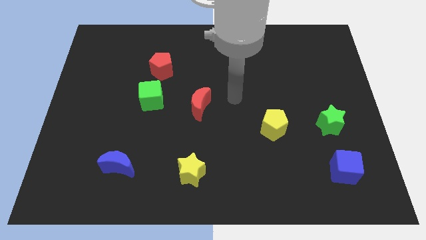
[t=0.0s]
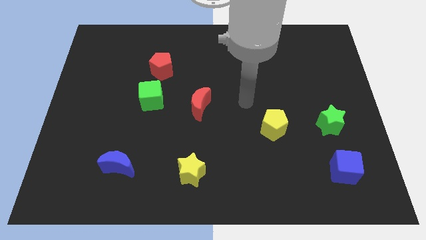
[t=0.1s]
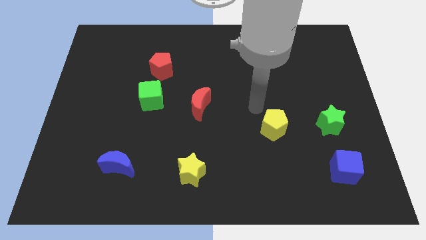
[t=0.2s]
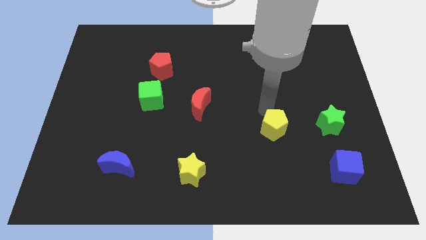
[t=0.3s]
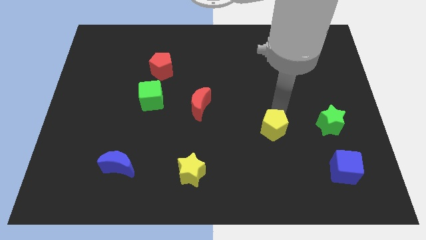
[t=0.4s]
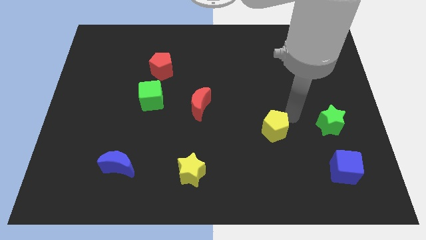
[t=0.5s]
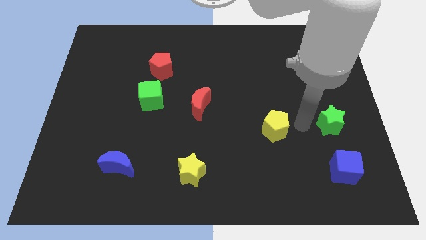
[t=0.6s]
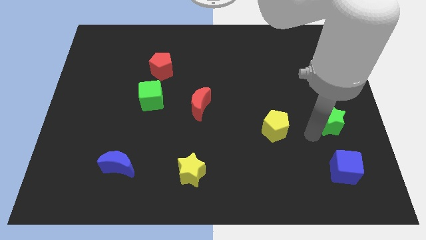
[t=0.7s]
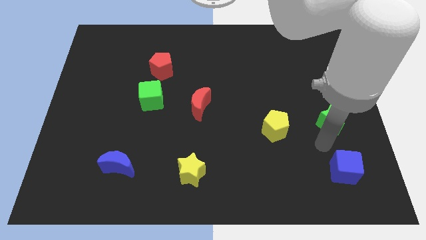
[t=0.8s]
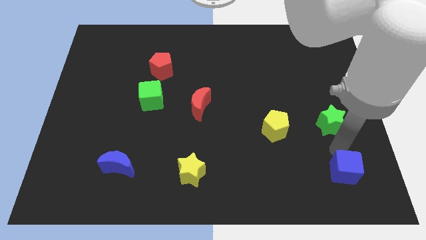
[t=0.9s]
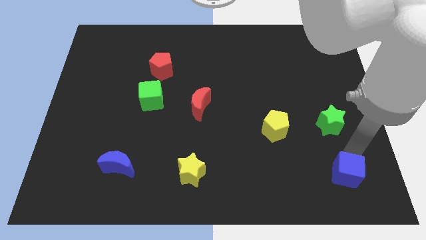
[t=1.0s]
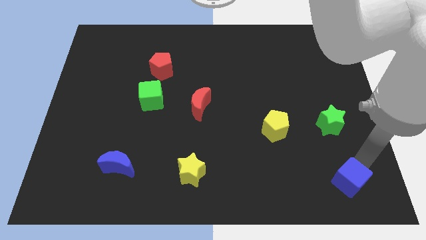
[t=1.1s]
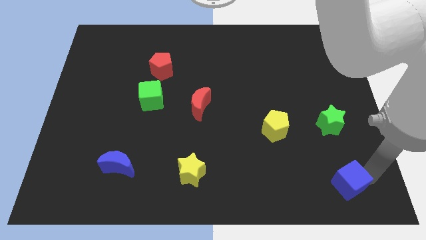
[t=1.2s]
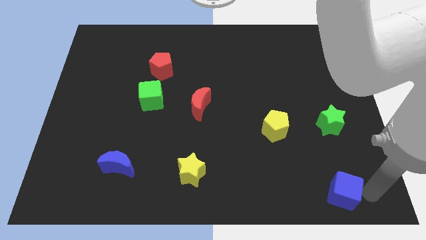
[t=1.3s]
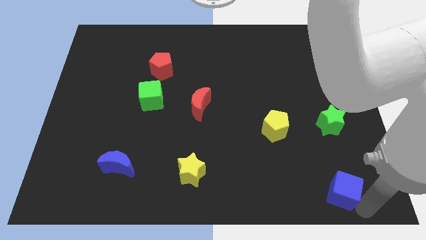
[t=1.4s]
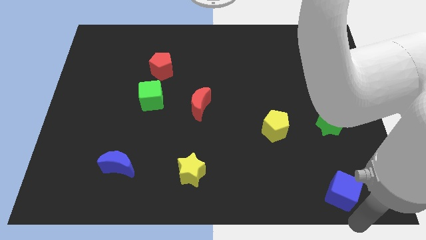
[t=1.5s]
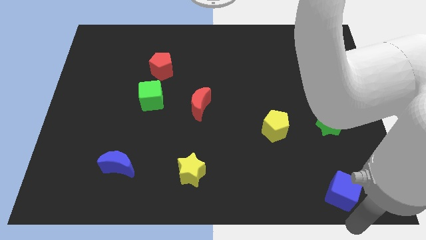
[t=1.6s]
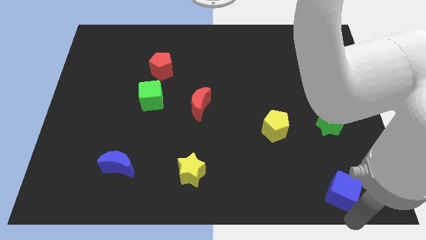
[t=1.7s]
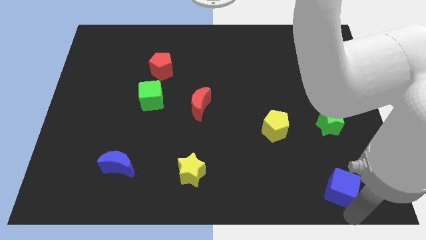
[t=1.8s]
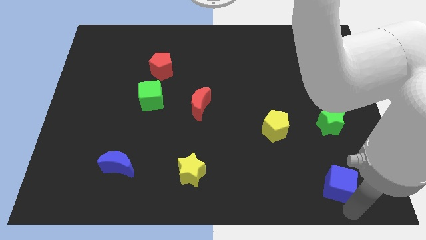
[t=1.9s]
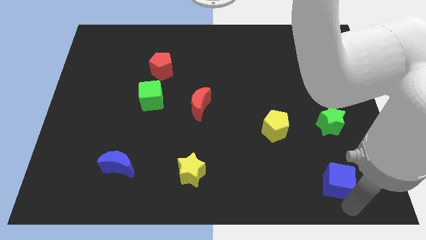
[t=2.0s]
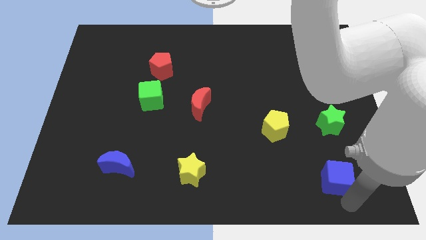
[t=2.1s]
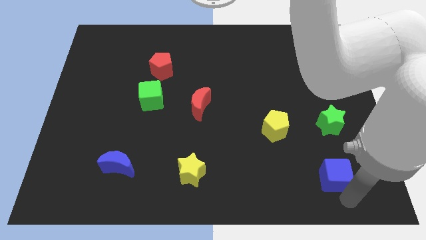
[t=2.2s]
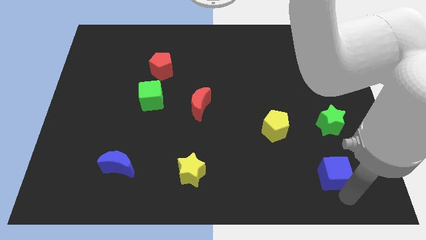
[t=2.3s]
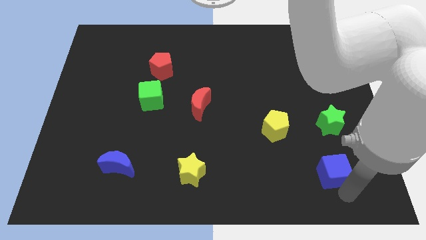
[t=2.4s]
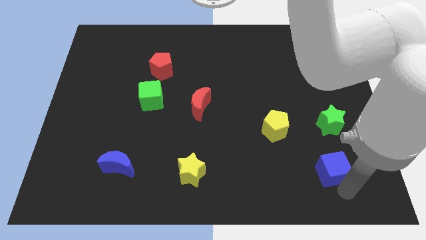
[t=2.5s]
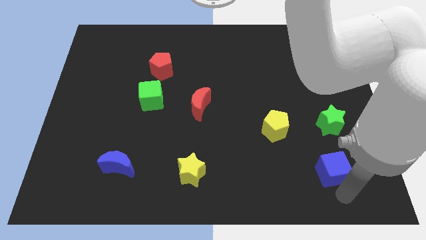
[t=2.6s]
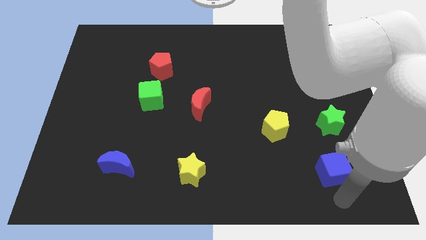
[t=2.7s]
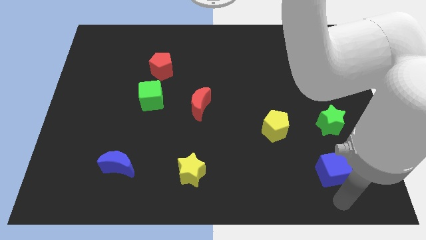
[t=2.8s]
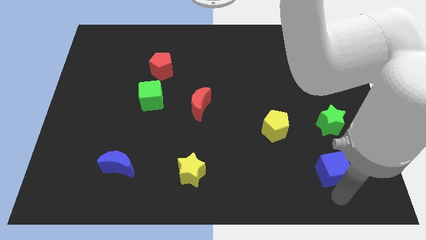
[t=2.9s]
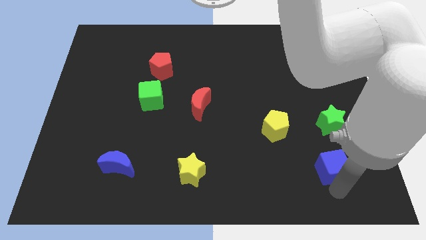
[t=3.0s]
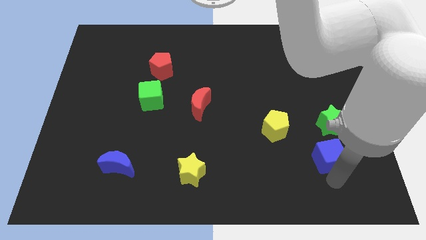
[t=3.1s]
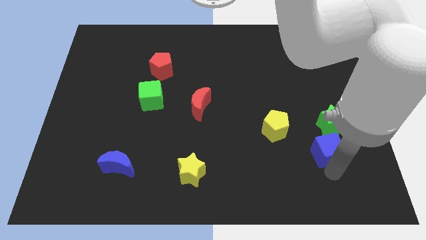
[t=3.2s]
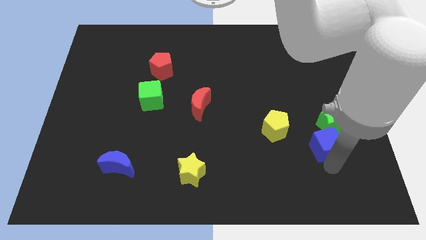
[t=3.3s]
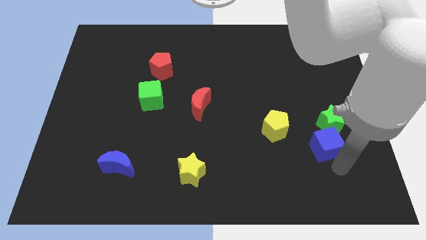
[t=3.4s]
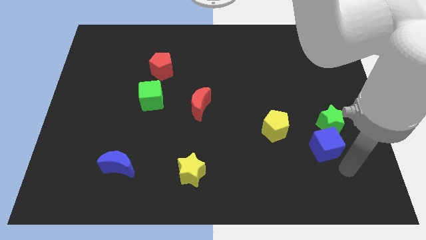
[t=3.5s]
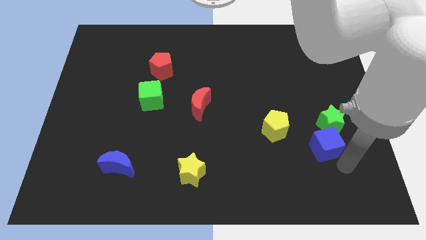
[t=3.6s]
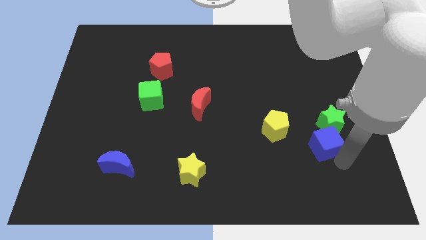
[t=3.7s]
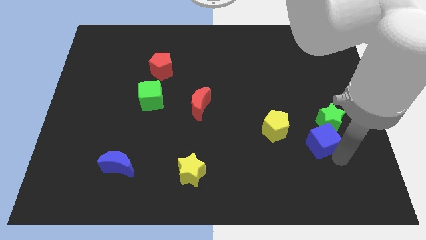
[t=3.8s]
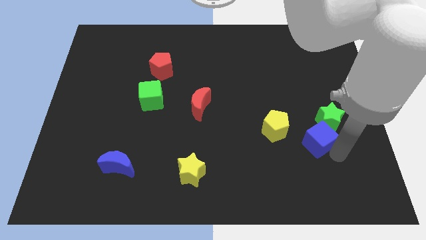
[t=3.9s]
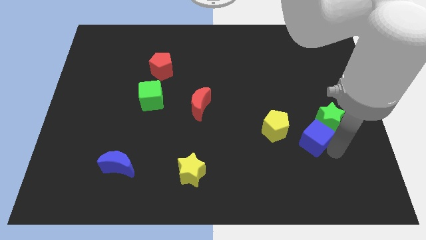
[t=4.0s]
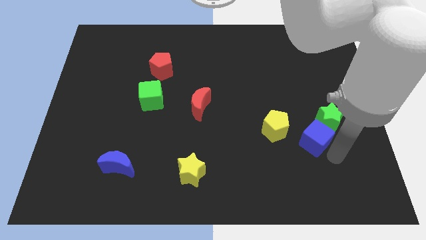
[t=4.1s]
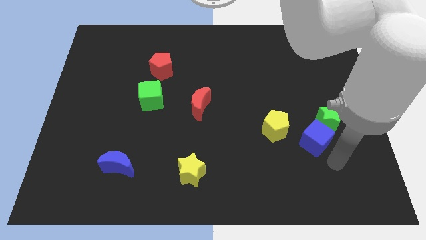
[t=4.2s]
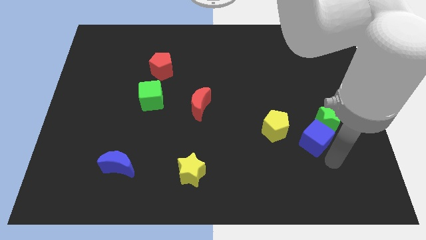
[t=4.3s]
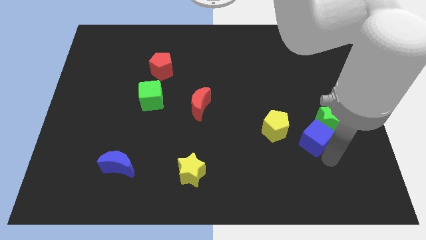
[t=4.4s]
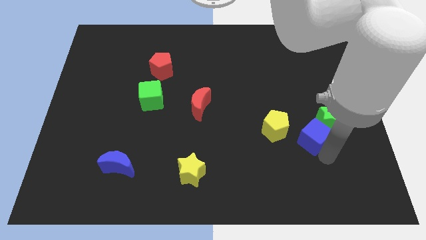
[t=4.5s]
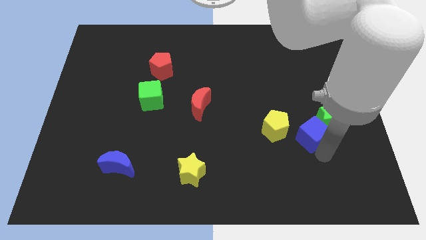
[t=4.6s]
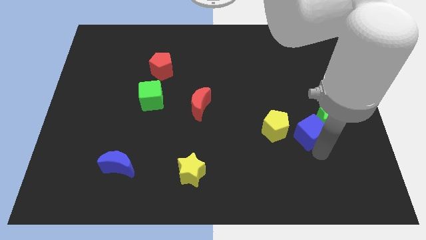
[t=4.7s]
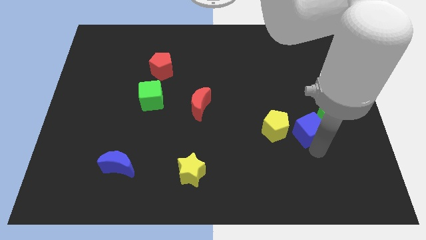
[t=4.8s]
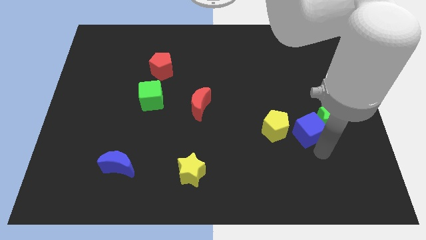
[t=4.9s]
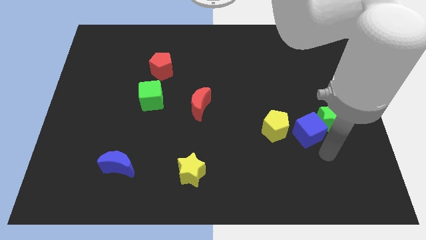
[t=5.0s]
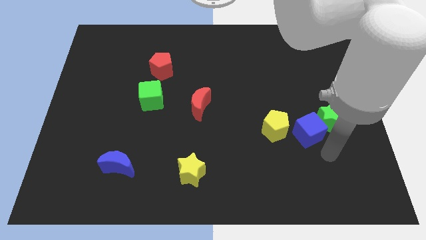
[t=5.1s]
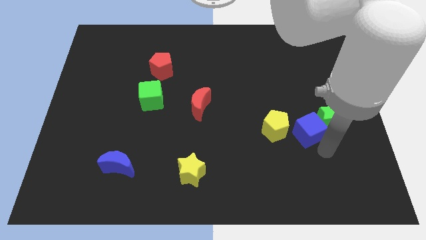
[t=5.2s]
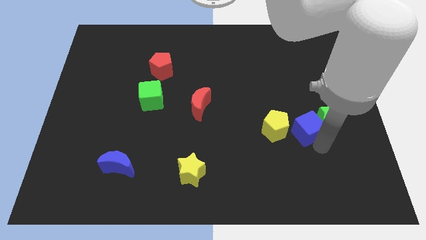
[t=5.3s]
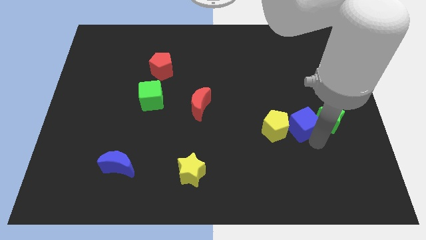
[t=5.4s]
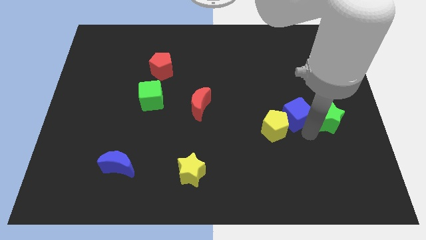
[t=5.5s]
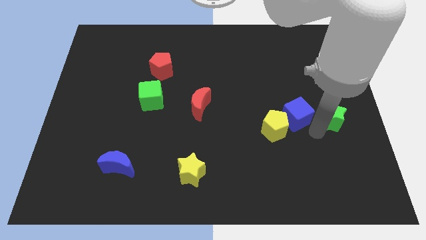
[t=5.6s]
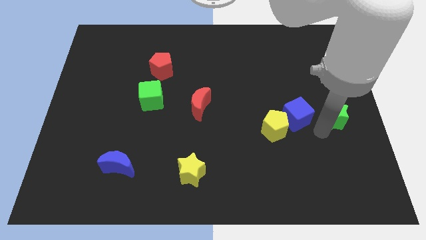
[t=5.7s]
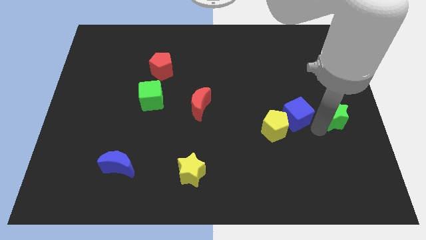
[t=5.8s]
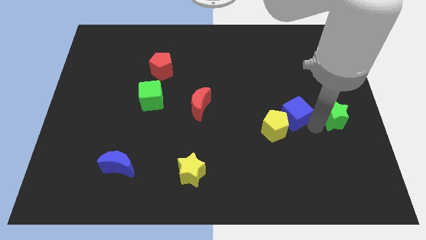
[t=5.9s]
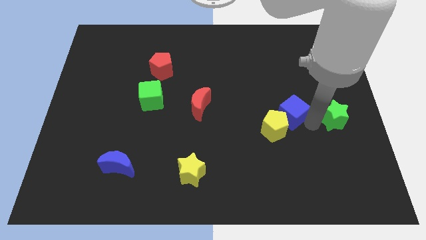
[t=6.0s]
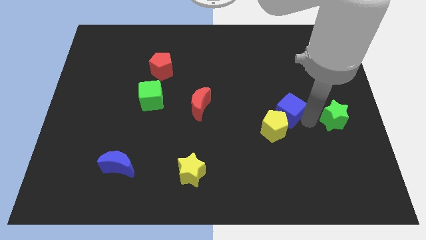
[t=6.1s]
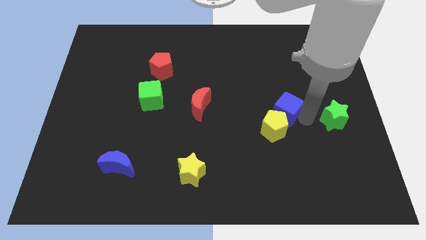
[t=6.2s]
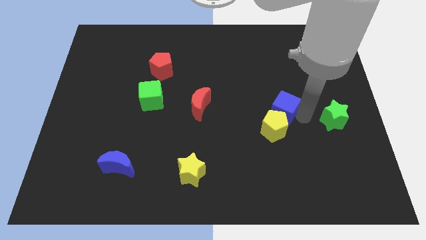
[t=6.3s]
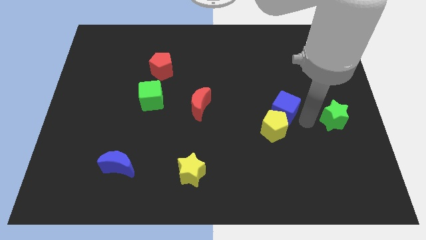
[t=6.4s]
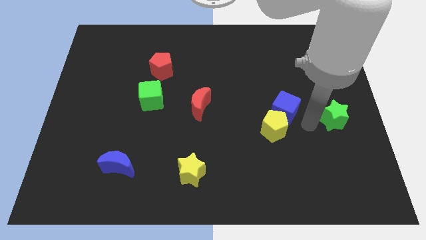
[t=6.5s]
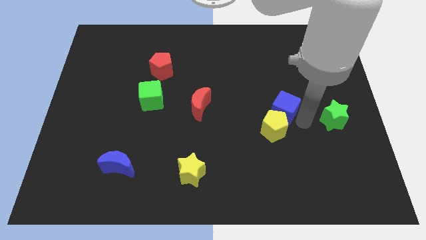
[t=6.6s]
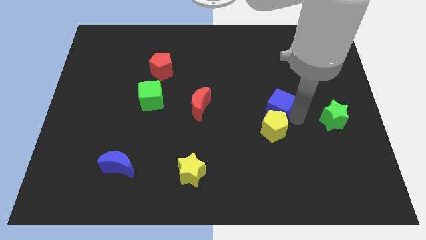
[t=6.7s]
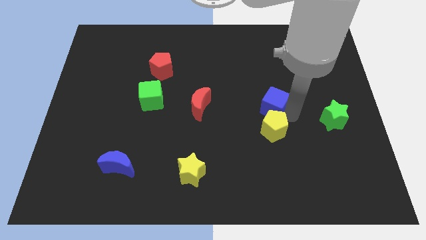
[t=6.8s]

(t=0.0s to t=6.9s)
move the blue cube diagonally upwards and left

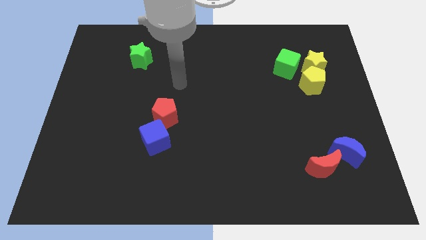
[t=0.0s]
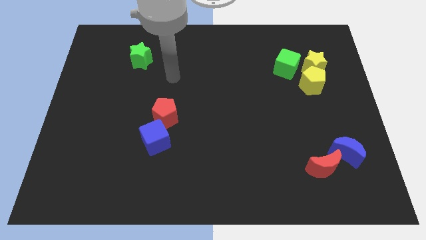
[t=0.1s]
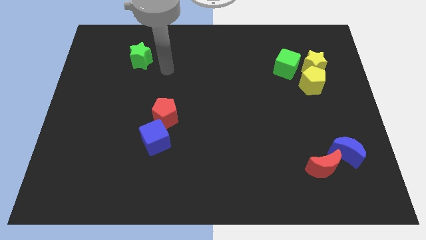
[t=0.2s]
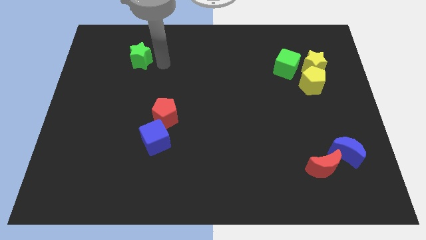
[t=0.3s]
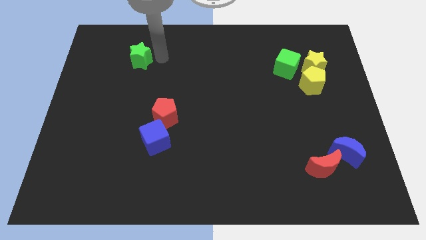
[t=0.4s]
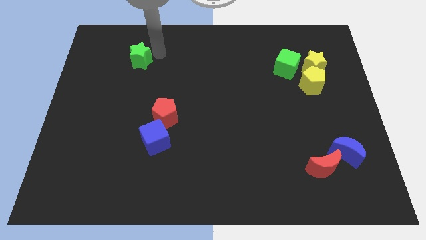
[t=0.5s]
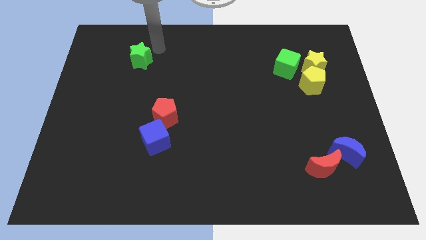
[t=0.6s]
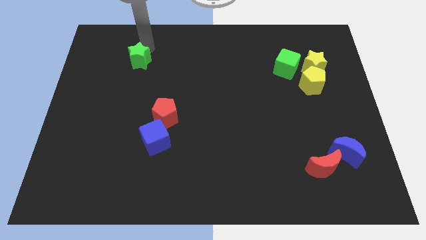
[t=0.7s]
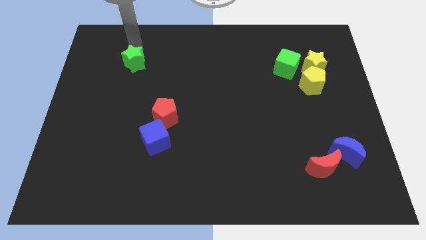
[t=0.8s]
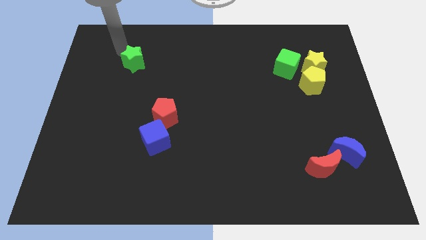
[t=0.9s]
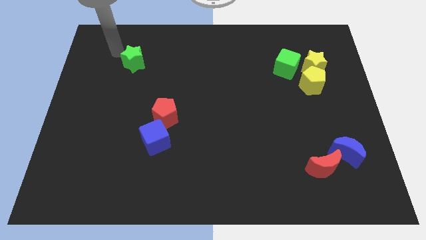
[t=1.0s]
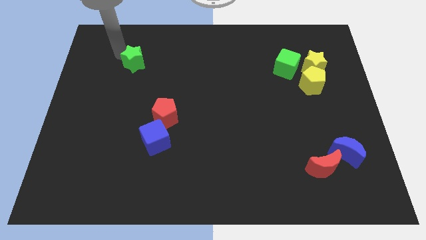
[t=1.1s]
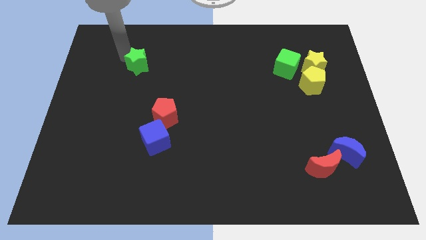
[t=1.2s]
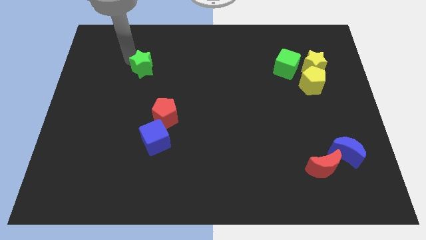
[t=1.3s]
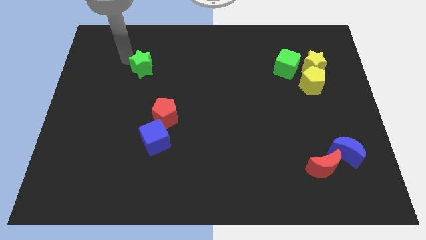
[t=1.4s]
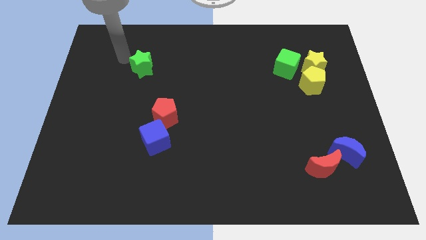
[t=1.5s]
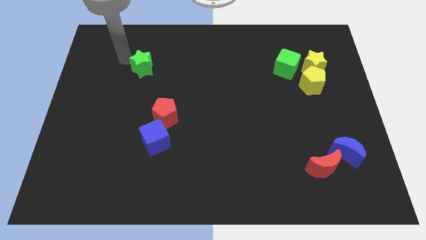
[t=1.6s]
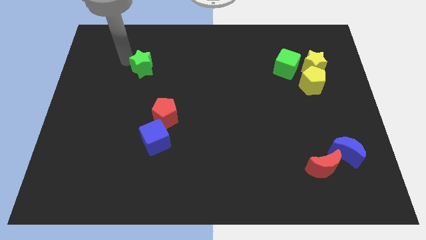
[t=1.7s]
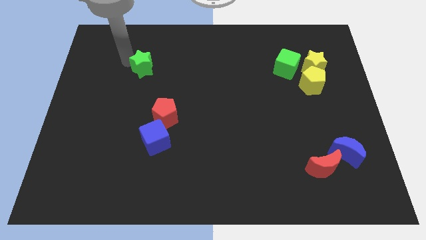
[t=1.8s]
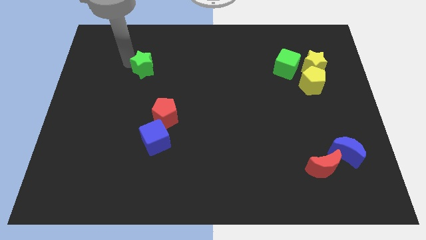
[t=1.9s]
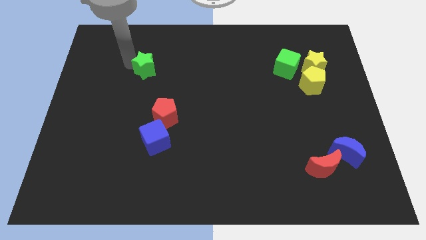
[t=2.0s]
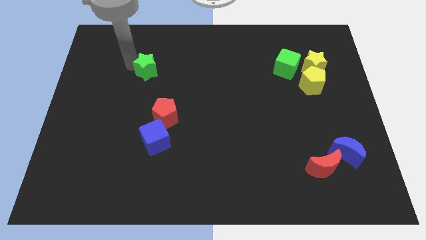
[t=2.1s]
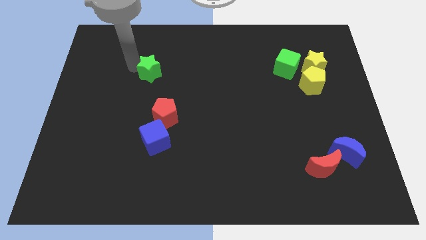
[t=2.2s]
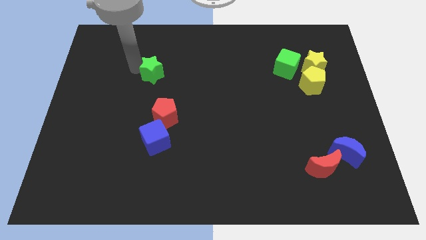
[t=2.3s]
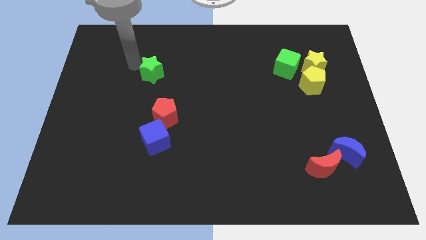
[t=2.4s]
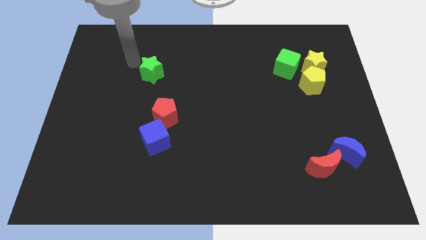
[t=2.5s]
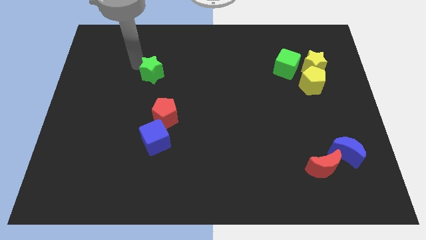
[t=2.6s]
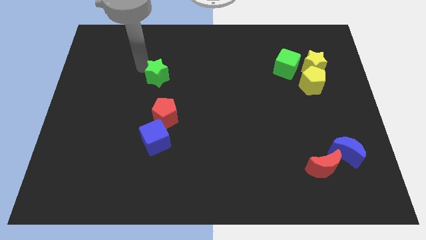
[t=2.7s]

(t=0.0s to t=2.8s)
slightly move the green star diagonally downwards and right
